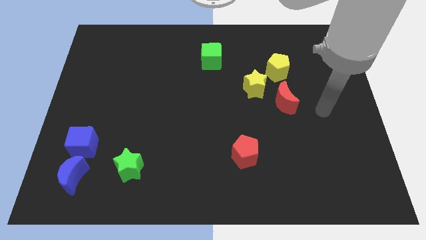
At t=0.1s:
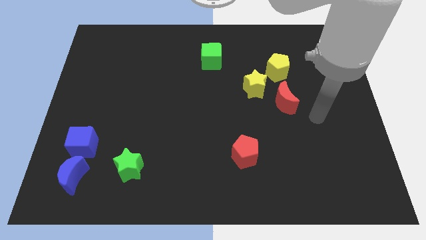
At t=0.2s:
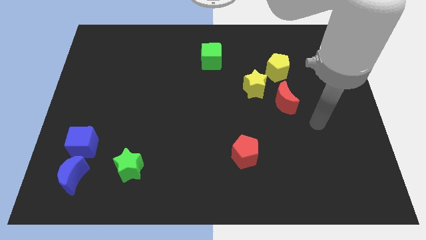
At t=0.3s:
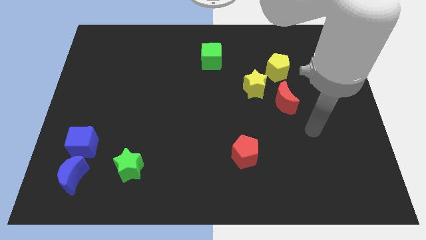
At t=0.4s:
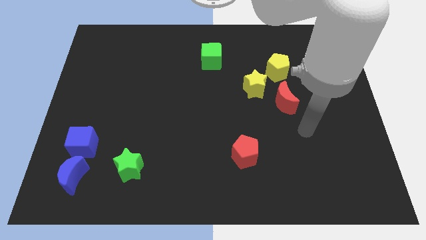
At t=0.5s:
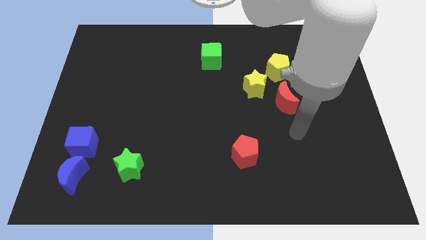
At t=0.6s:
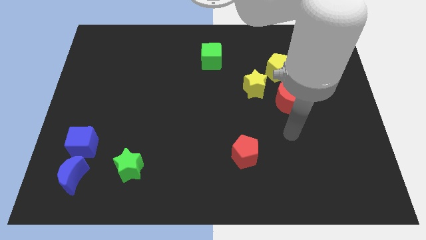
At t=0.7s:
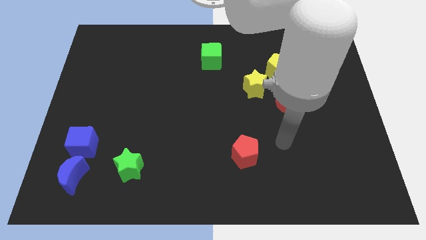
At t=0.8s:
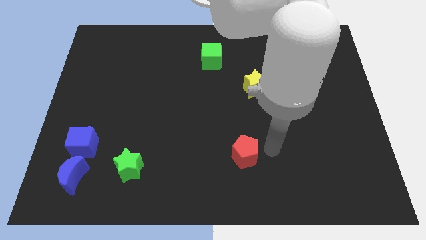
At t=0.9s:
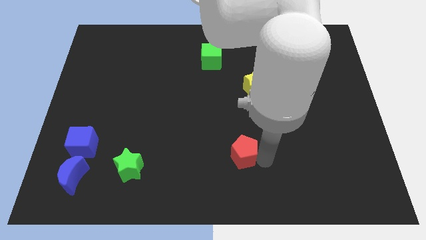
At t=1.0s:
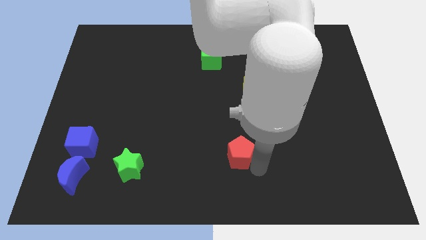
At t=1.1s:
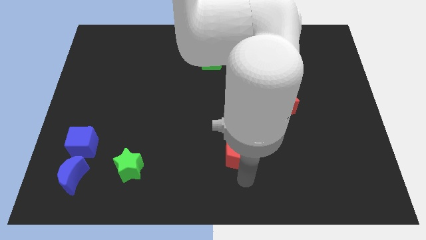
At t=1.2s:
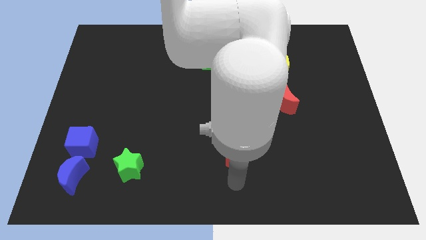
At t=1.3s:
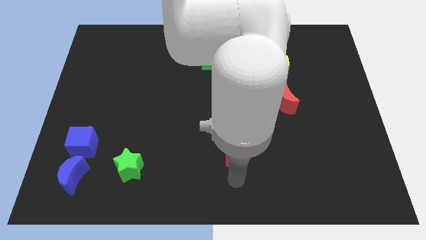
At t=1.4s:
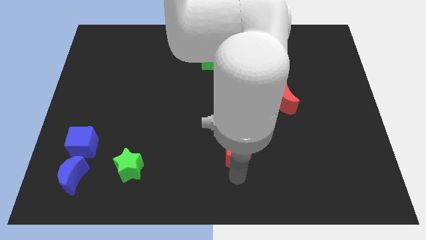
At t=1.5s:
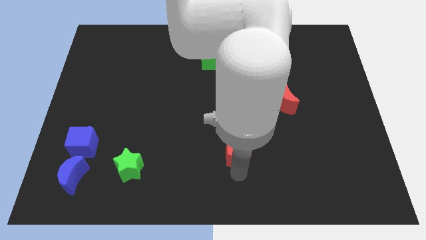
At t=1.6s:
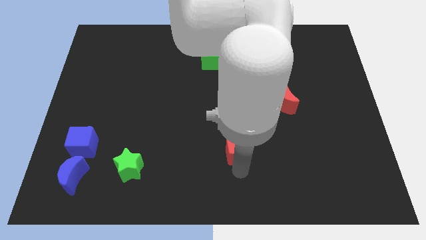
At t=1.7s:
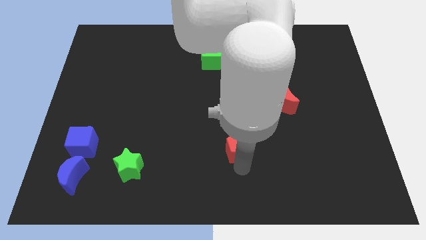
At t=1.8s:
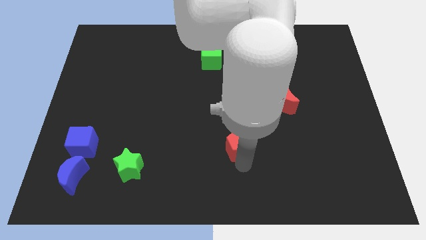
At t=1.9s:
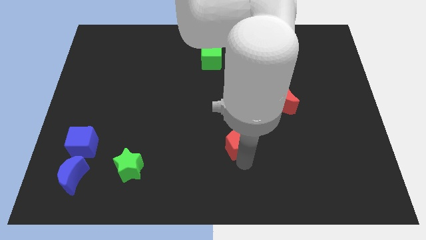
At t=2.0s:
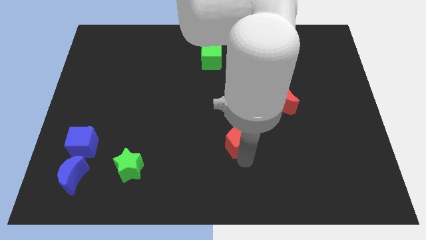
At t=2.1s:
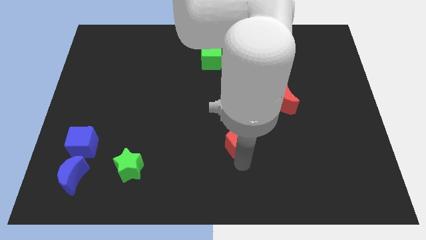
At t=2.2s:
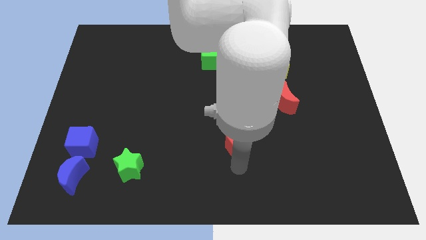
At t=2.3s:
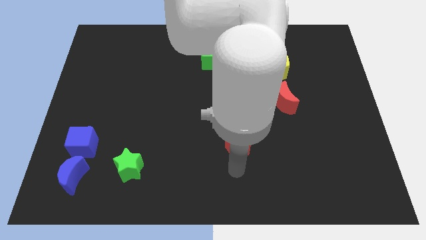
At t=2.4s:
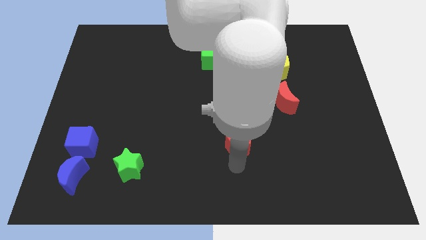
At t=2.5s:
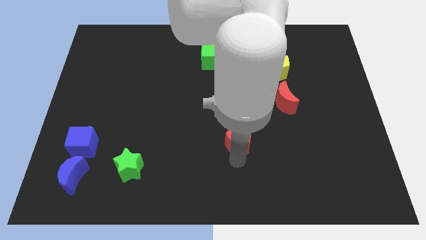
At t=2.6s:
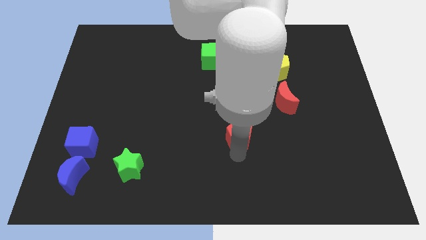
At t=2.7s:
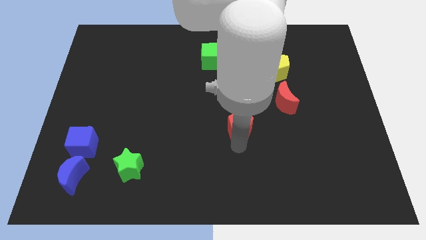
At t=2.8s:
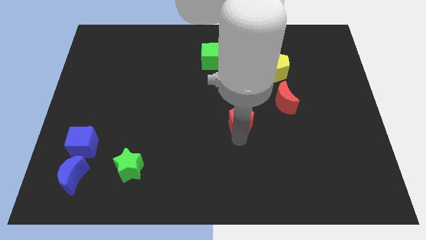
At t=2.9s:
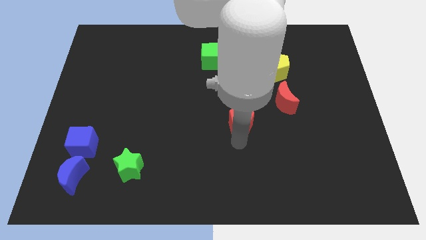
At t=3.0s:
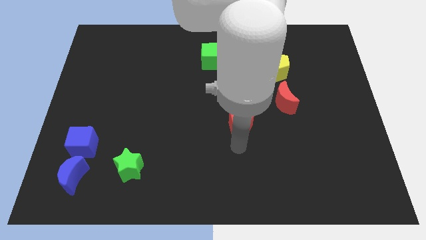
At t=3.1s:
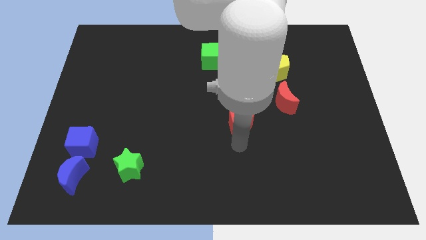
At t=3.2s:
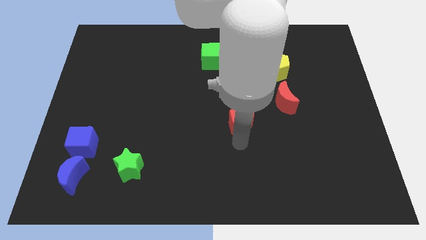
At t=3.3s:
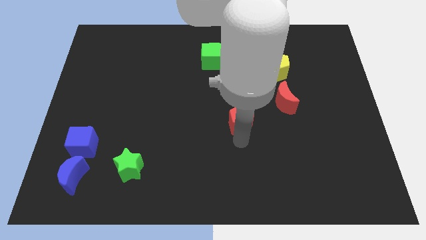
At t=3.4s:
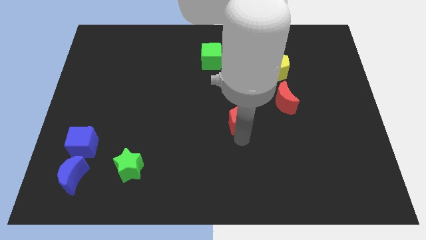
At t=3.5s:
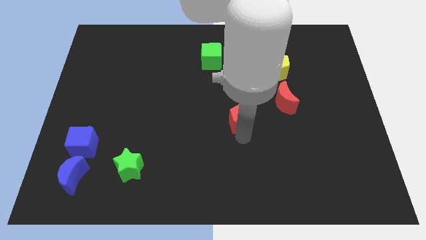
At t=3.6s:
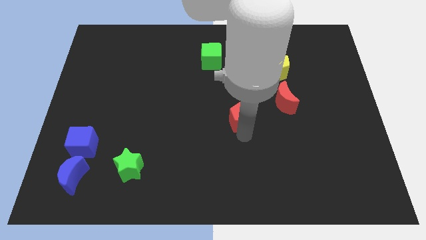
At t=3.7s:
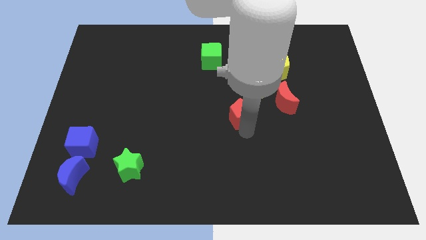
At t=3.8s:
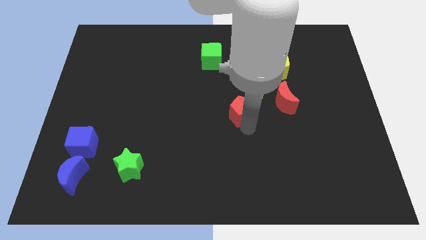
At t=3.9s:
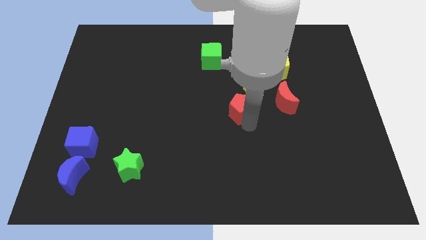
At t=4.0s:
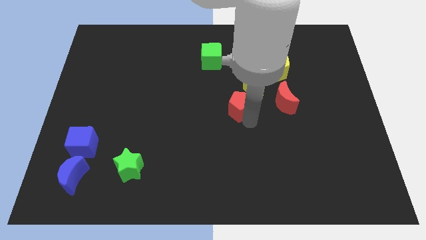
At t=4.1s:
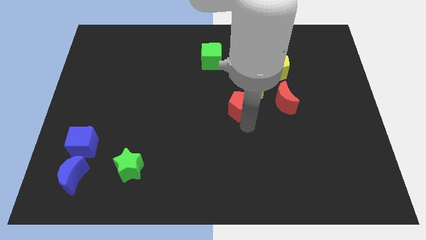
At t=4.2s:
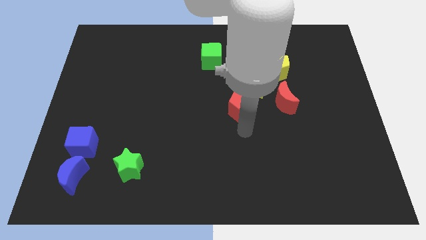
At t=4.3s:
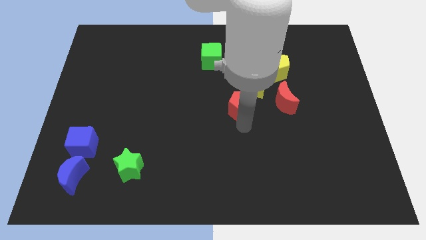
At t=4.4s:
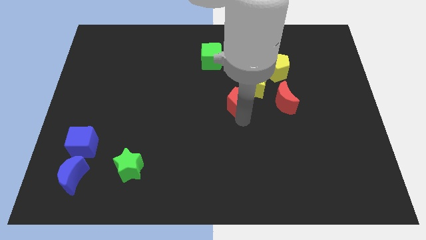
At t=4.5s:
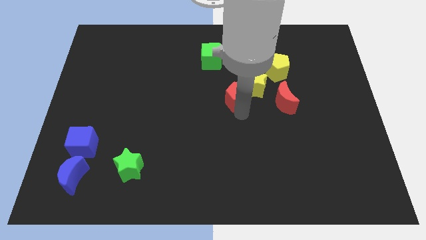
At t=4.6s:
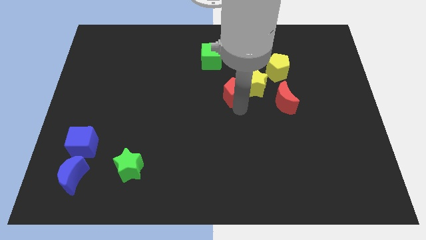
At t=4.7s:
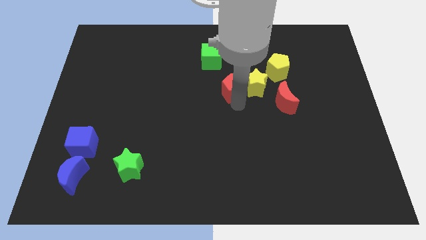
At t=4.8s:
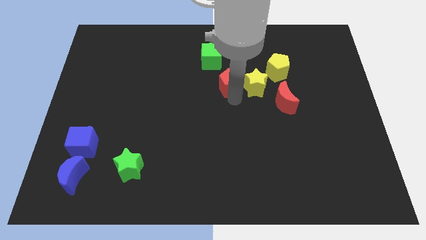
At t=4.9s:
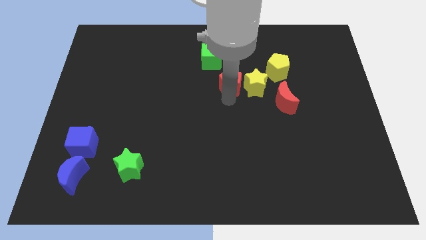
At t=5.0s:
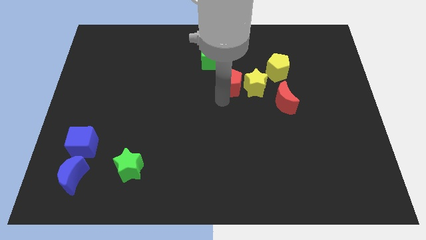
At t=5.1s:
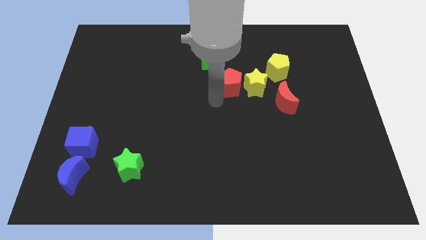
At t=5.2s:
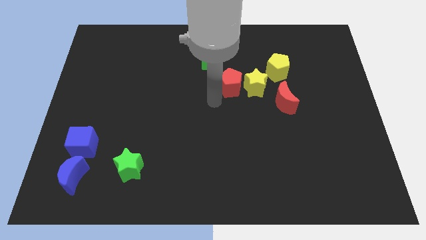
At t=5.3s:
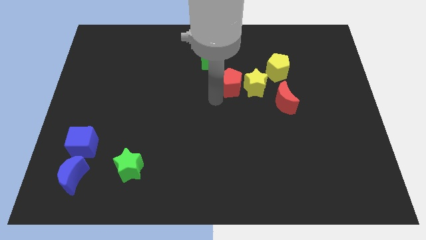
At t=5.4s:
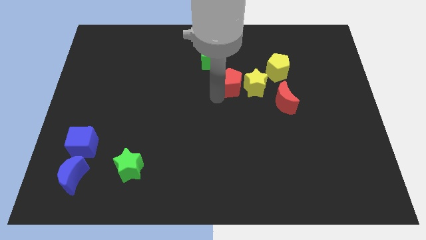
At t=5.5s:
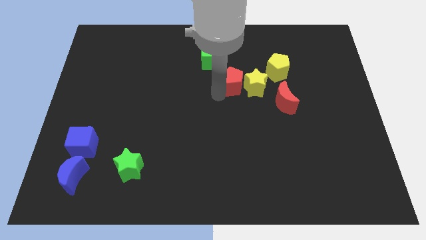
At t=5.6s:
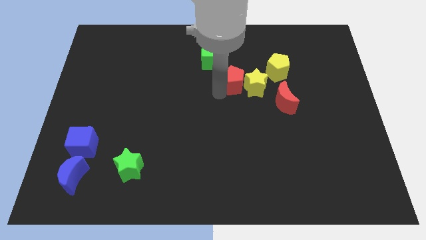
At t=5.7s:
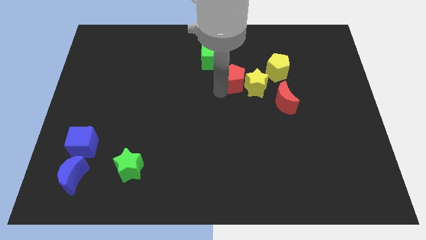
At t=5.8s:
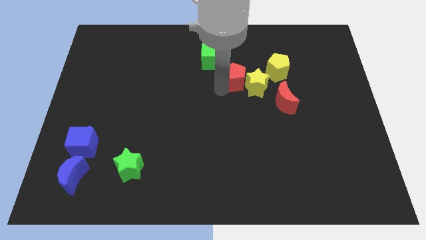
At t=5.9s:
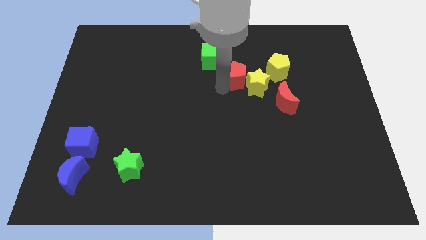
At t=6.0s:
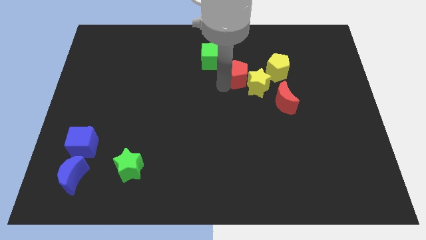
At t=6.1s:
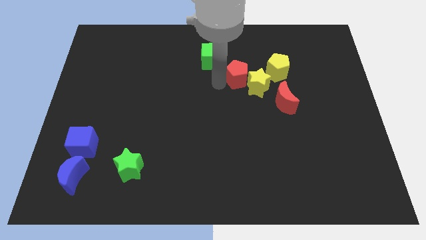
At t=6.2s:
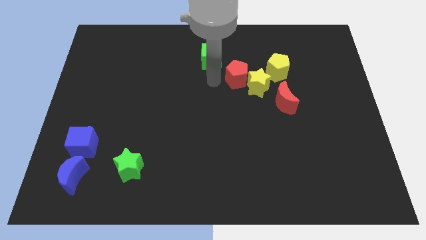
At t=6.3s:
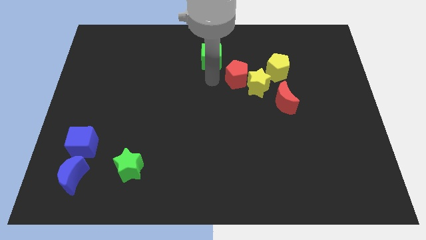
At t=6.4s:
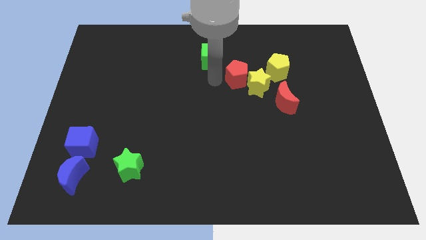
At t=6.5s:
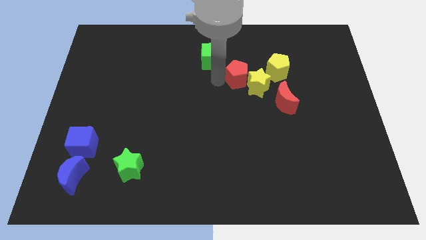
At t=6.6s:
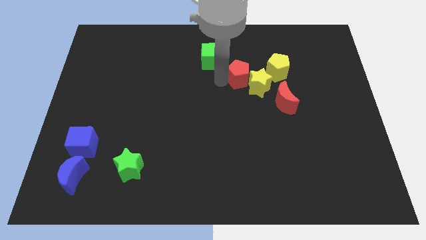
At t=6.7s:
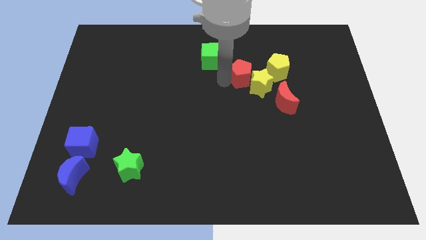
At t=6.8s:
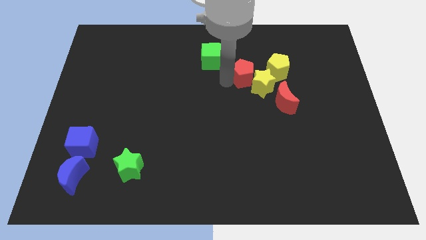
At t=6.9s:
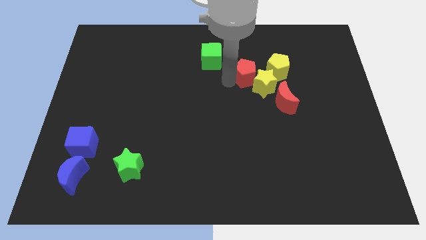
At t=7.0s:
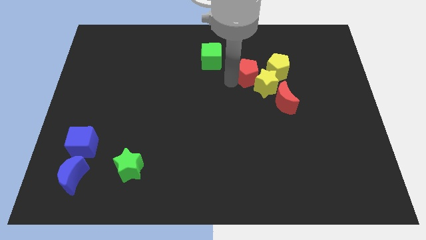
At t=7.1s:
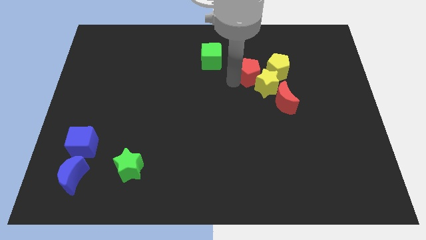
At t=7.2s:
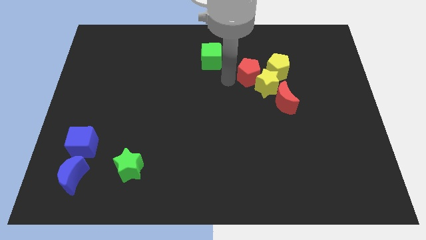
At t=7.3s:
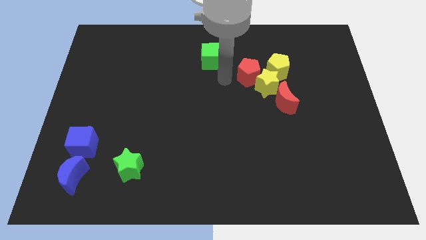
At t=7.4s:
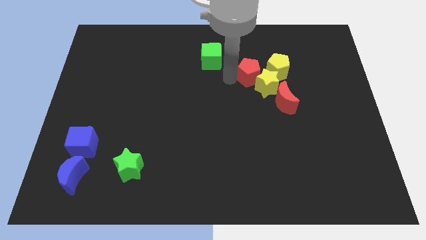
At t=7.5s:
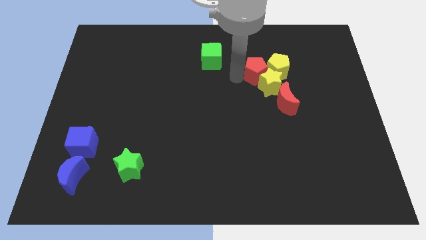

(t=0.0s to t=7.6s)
move the red pentagon towards the yellow pentagon
